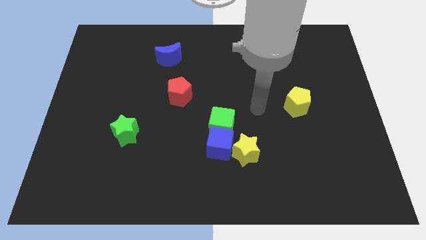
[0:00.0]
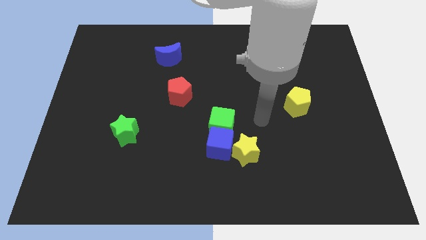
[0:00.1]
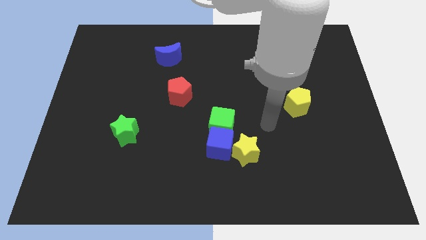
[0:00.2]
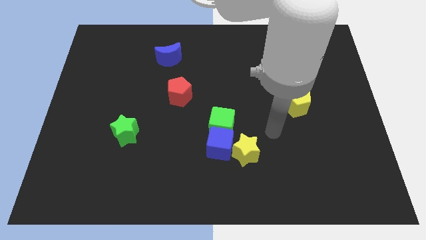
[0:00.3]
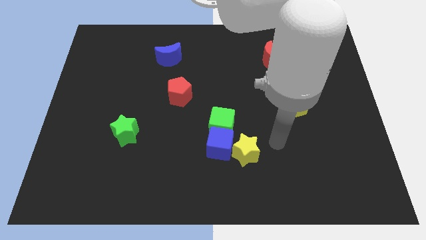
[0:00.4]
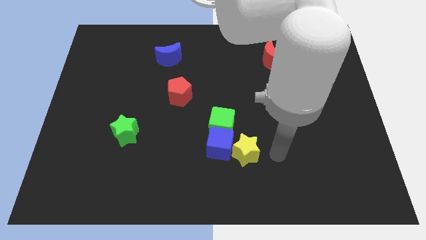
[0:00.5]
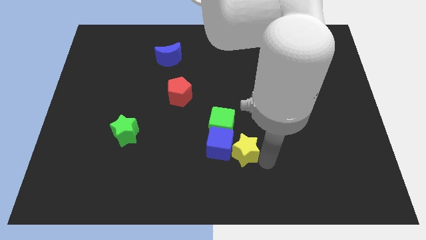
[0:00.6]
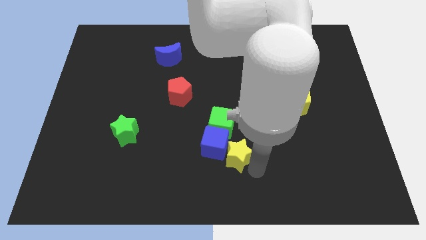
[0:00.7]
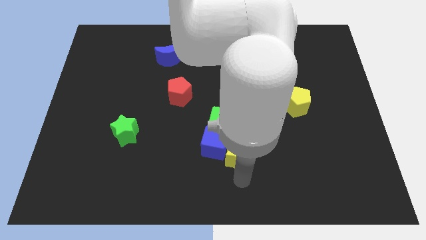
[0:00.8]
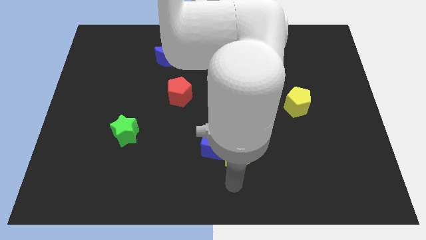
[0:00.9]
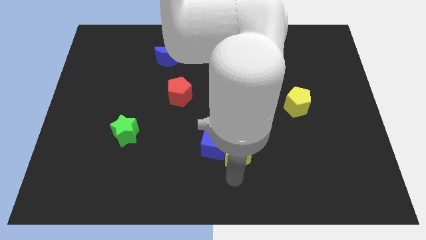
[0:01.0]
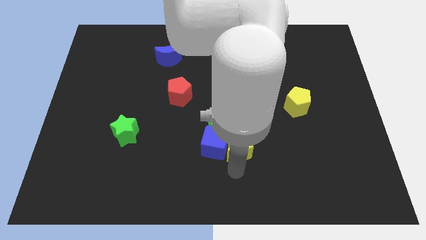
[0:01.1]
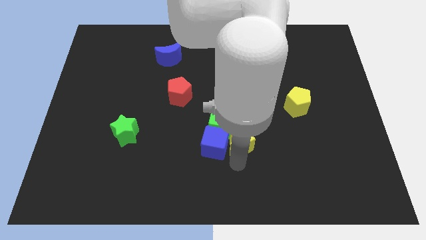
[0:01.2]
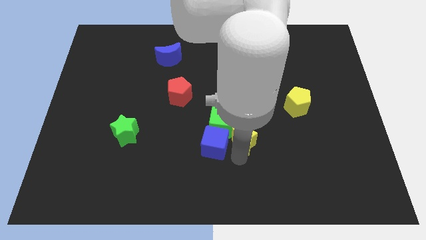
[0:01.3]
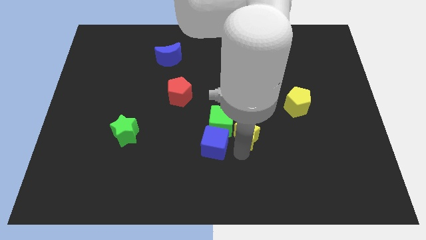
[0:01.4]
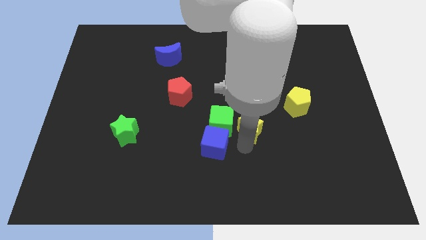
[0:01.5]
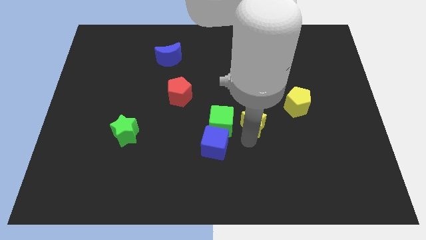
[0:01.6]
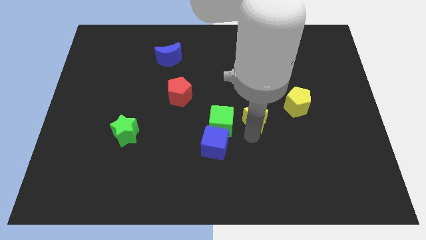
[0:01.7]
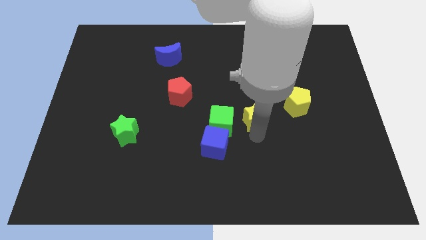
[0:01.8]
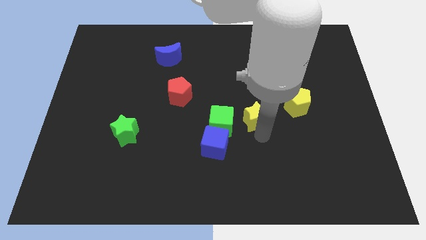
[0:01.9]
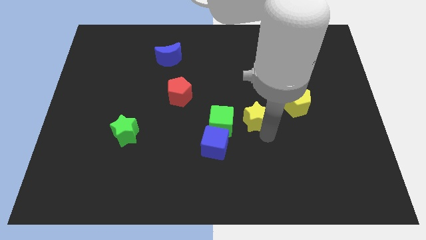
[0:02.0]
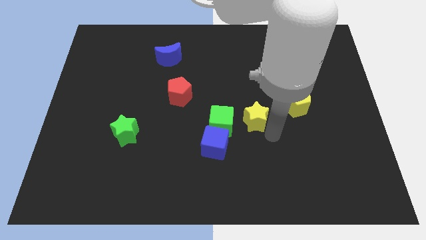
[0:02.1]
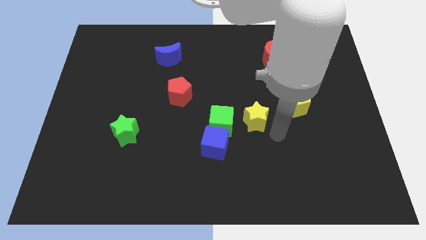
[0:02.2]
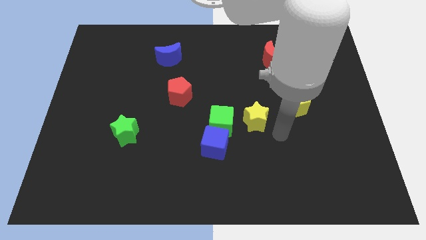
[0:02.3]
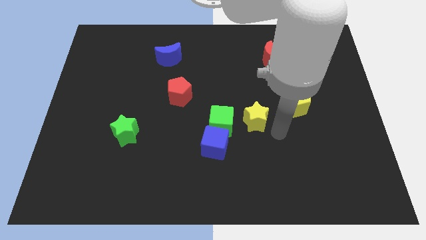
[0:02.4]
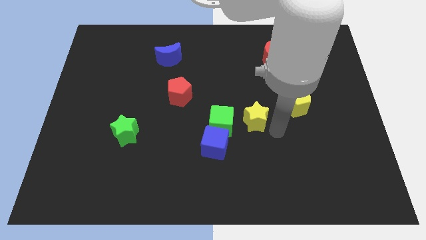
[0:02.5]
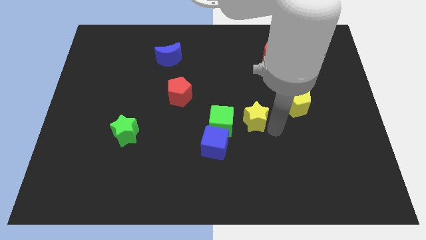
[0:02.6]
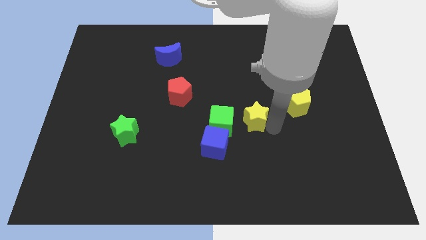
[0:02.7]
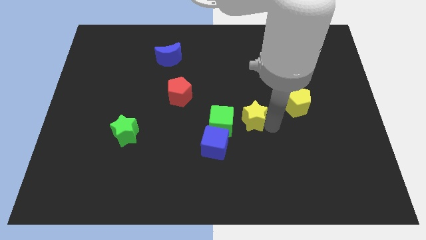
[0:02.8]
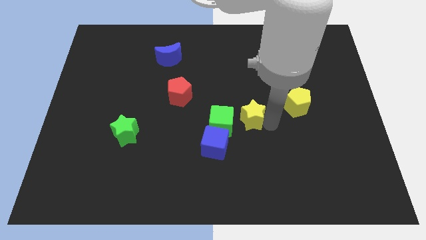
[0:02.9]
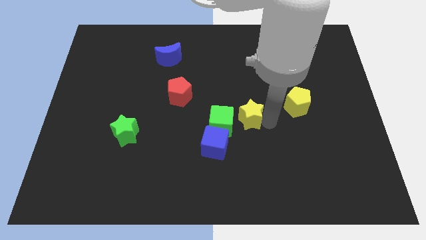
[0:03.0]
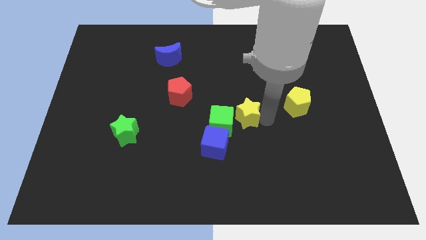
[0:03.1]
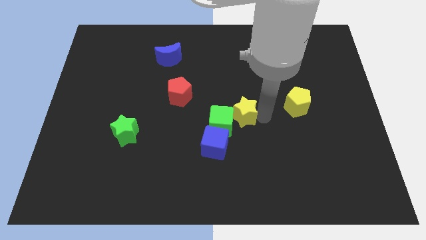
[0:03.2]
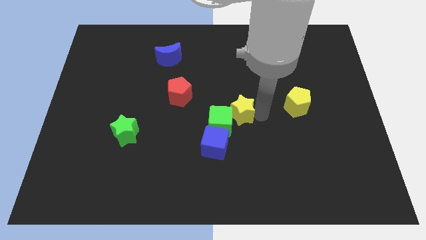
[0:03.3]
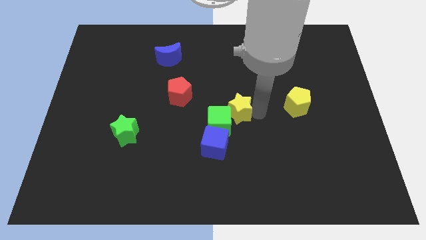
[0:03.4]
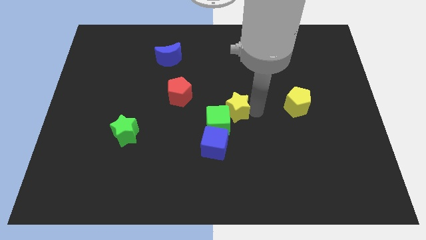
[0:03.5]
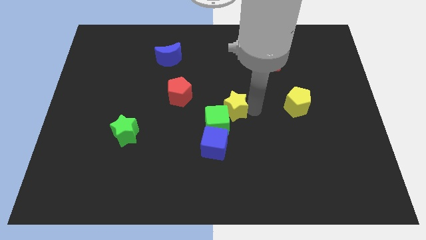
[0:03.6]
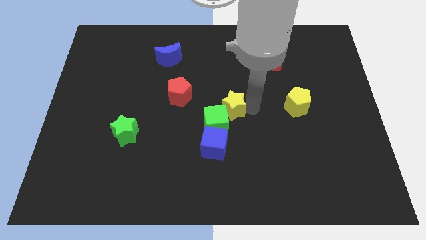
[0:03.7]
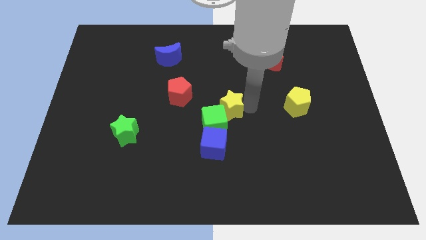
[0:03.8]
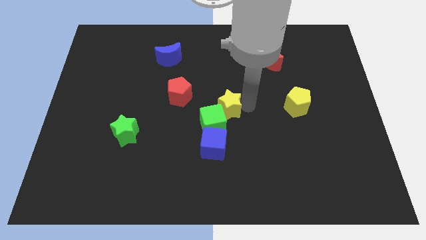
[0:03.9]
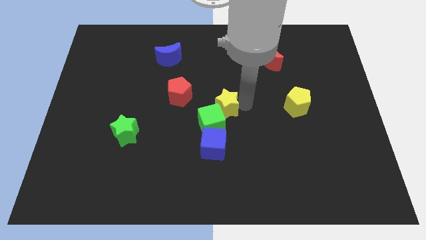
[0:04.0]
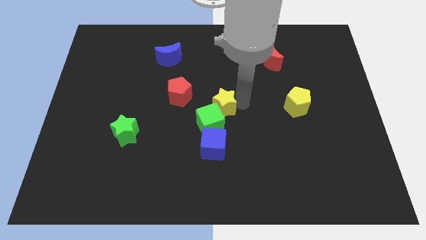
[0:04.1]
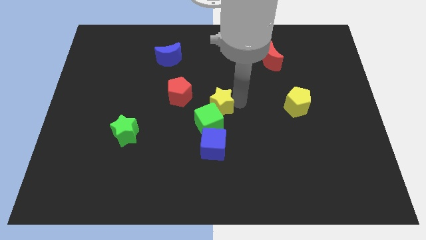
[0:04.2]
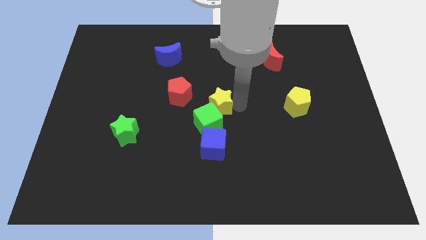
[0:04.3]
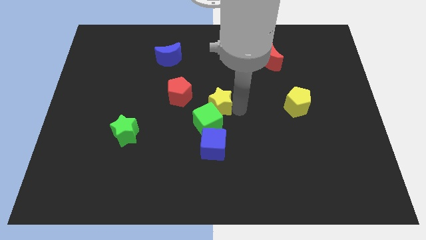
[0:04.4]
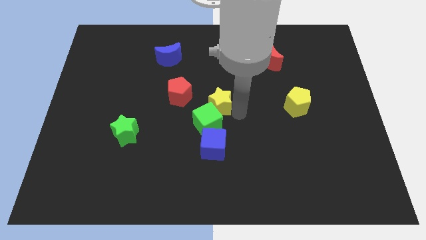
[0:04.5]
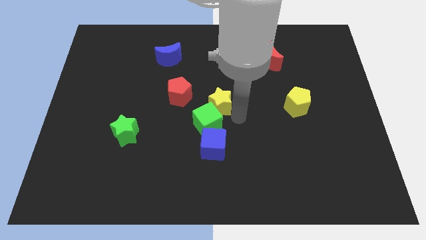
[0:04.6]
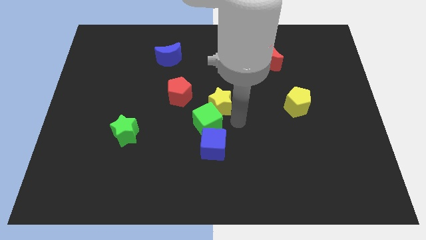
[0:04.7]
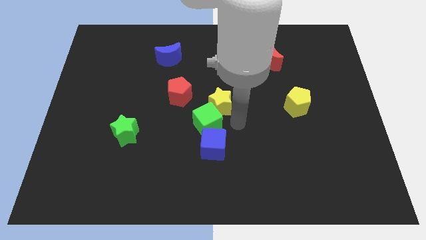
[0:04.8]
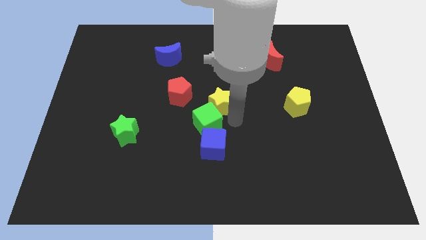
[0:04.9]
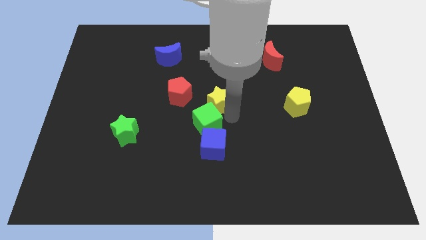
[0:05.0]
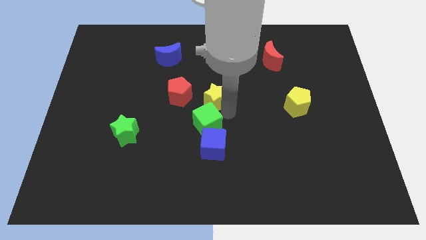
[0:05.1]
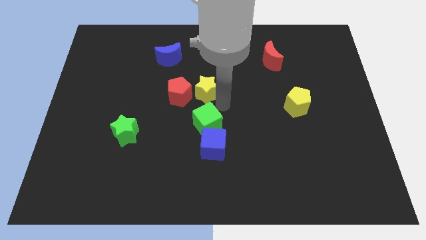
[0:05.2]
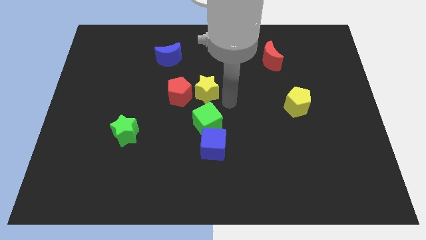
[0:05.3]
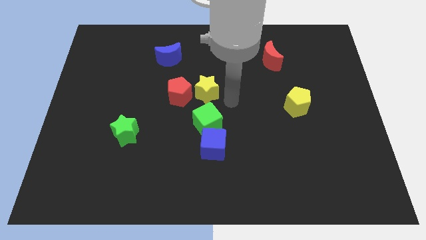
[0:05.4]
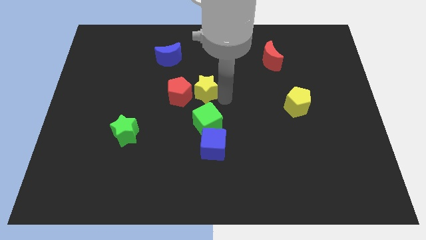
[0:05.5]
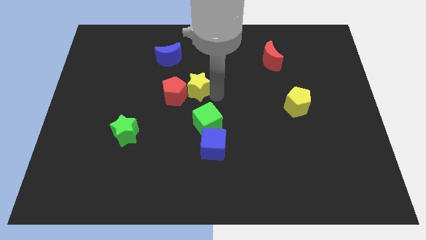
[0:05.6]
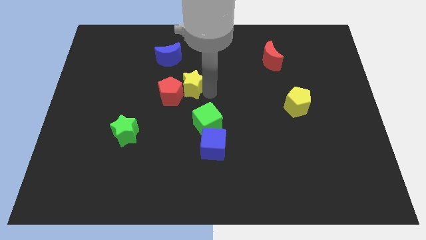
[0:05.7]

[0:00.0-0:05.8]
push the yellow star diagonally upwards and to the left

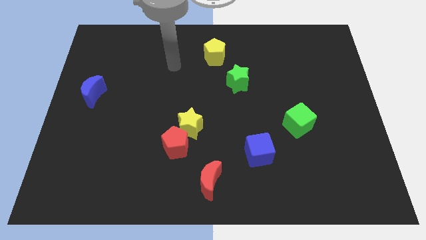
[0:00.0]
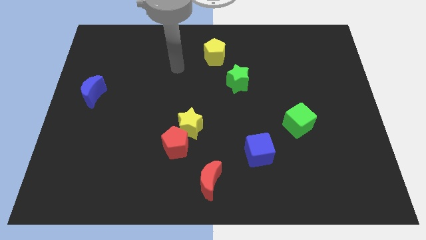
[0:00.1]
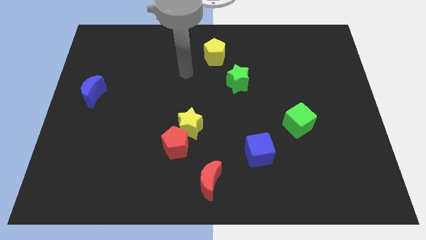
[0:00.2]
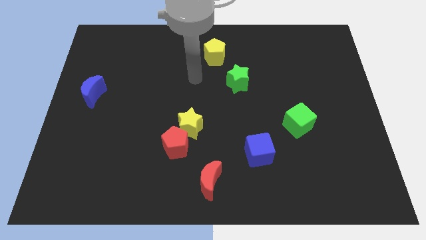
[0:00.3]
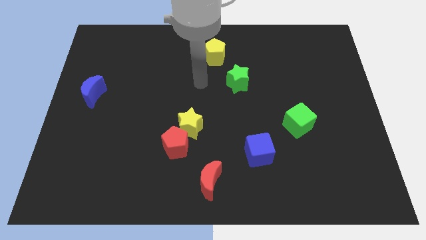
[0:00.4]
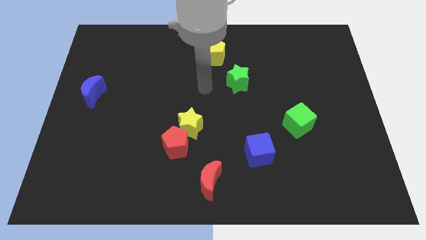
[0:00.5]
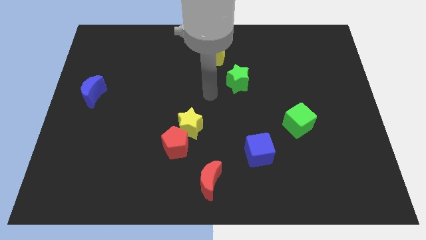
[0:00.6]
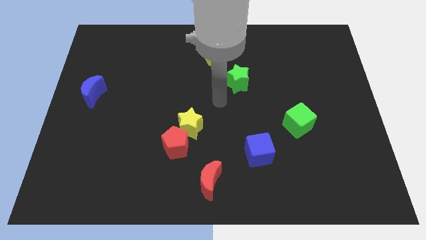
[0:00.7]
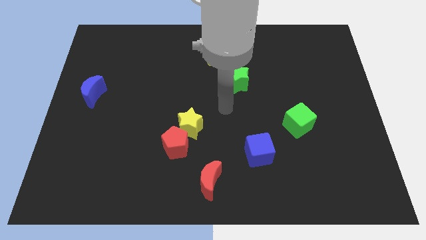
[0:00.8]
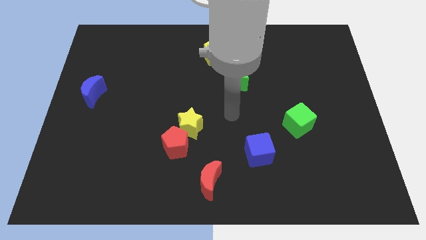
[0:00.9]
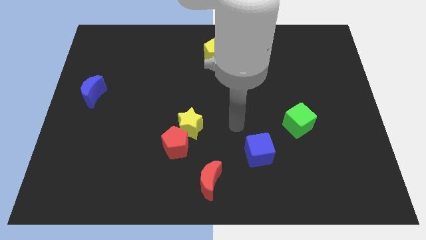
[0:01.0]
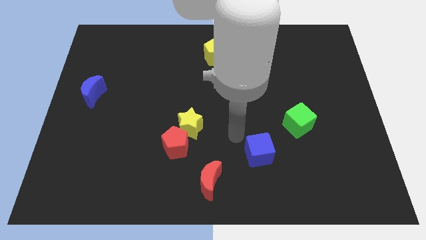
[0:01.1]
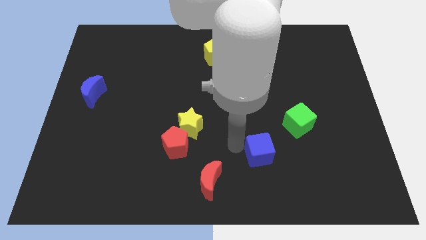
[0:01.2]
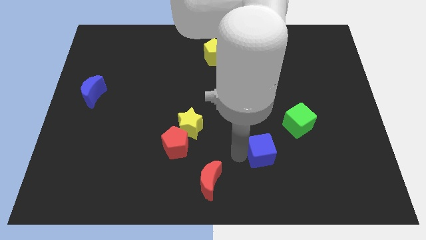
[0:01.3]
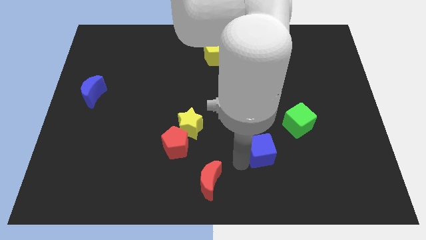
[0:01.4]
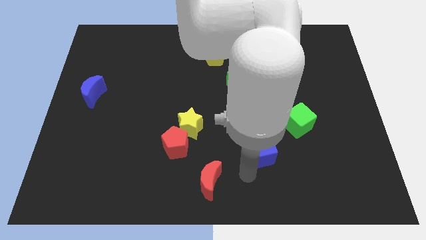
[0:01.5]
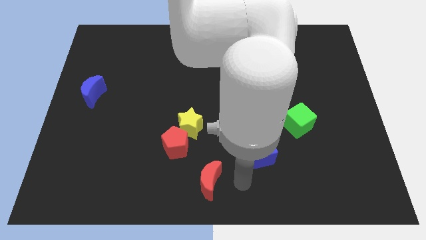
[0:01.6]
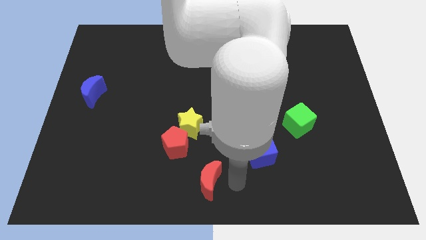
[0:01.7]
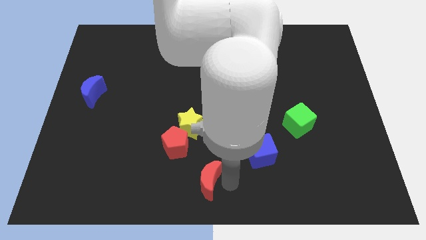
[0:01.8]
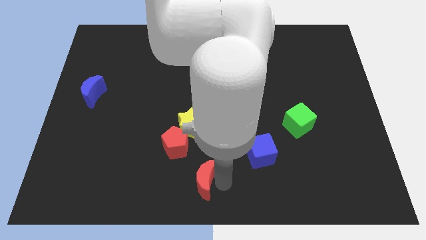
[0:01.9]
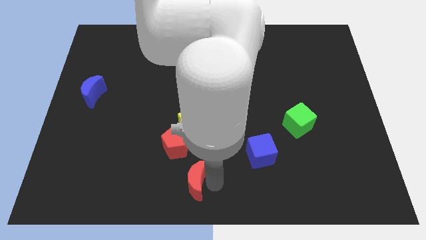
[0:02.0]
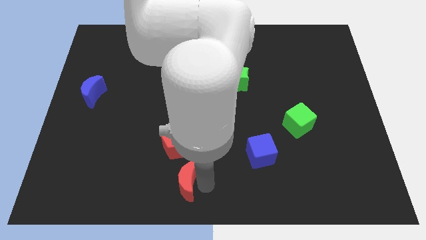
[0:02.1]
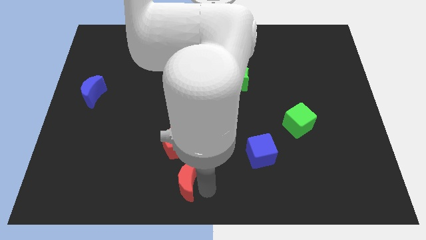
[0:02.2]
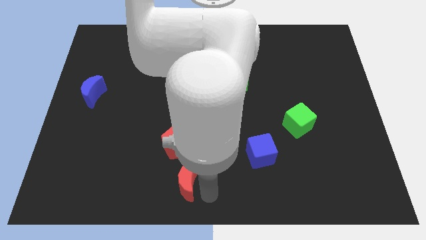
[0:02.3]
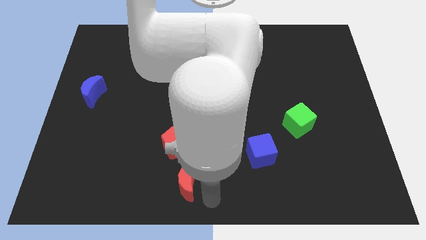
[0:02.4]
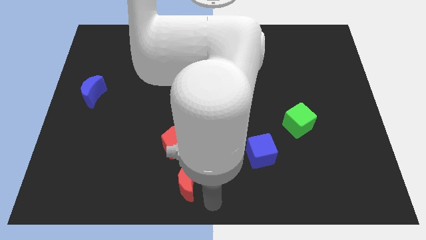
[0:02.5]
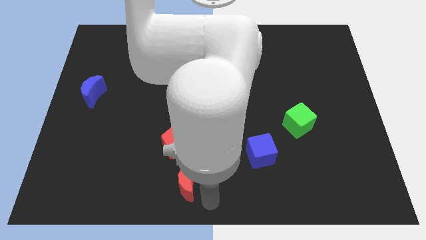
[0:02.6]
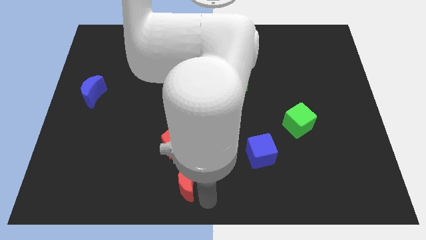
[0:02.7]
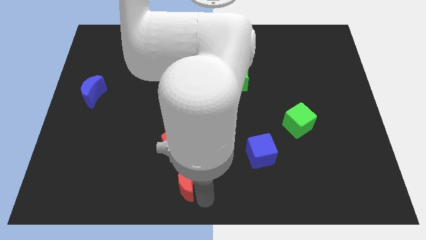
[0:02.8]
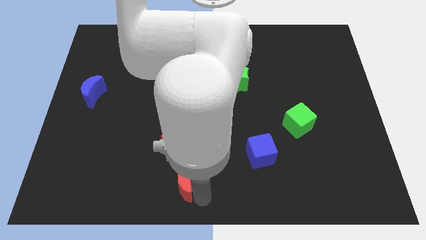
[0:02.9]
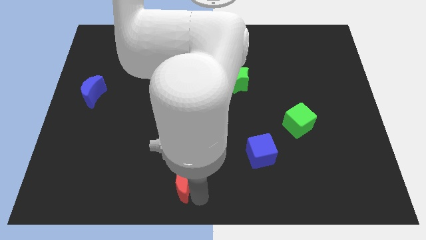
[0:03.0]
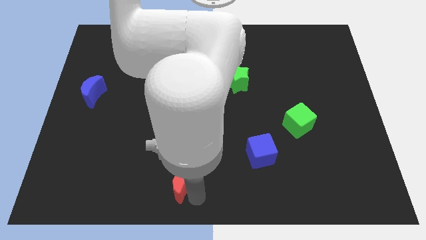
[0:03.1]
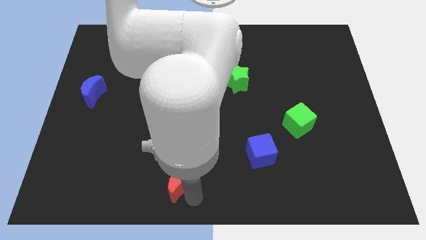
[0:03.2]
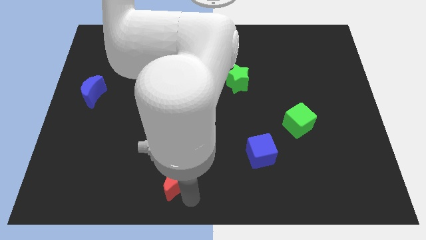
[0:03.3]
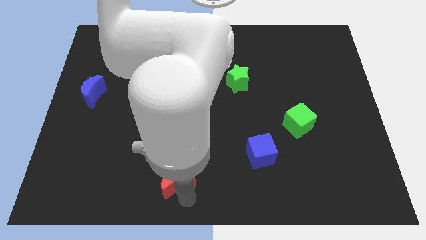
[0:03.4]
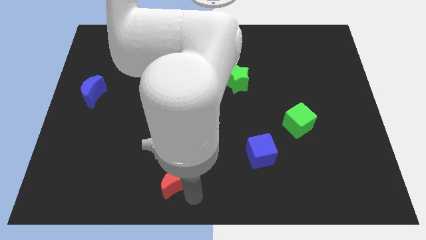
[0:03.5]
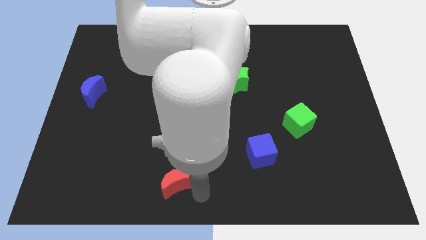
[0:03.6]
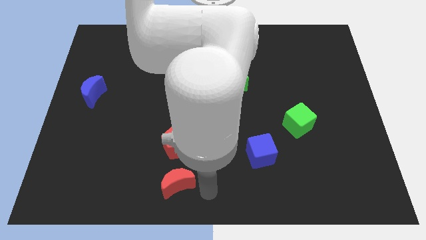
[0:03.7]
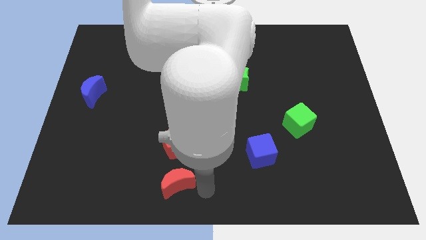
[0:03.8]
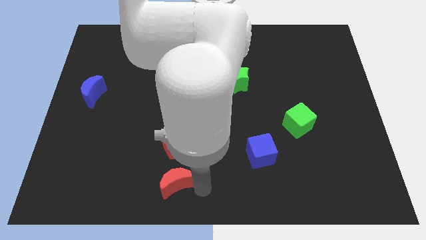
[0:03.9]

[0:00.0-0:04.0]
move the red moon a bit to the left
